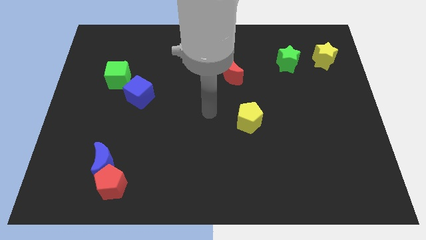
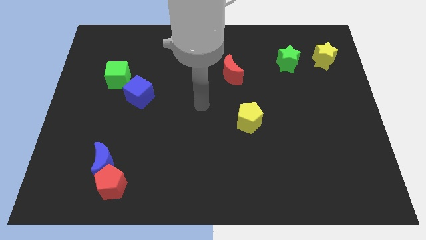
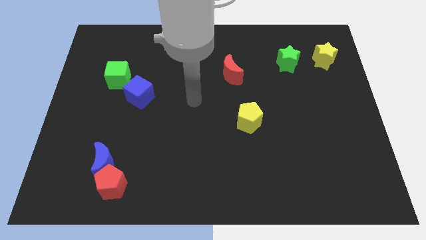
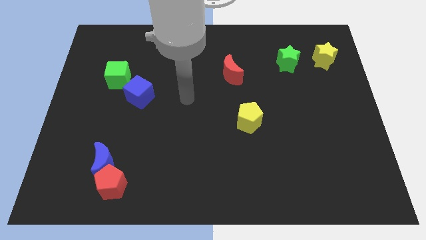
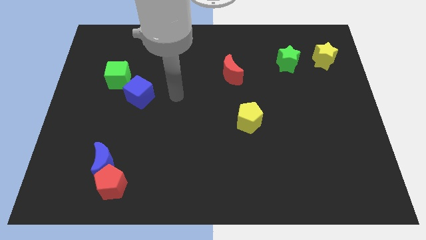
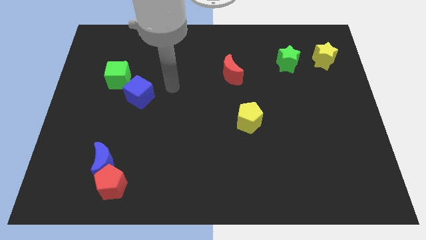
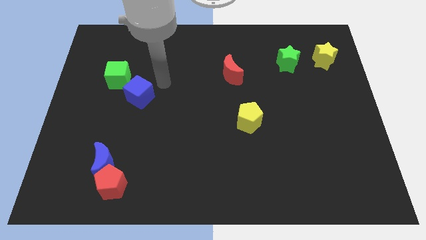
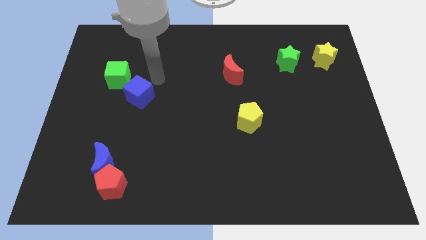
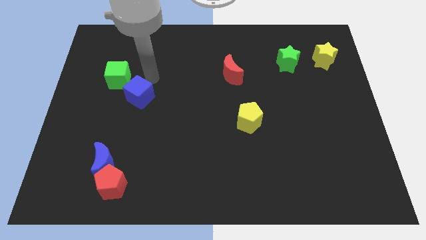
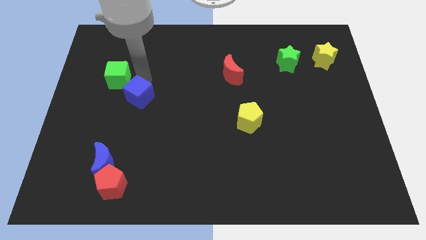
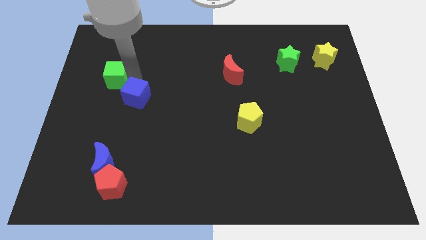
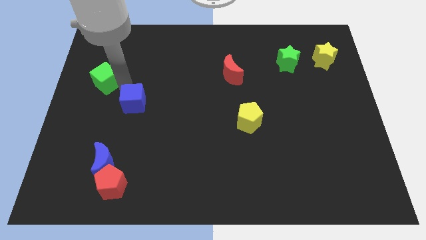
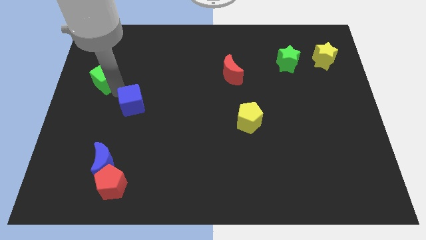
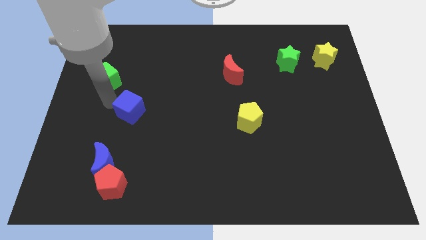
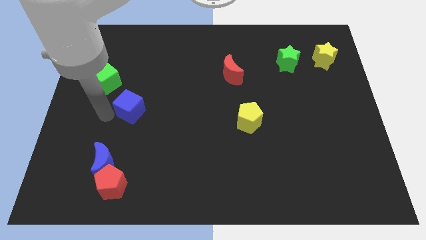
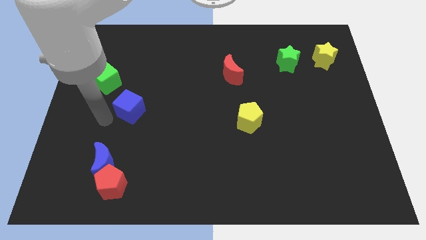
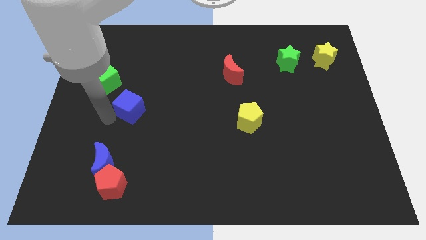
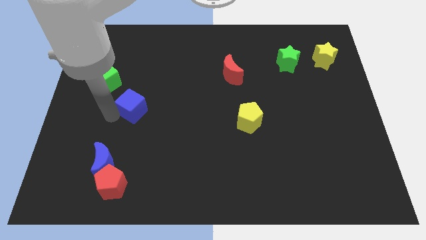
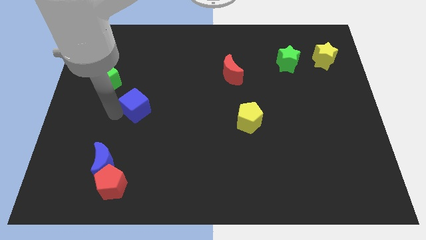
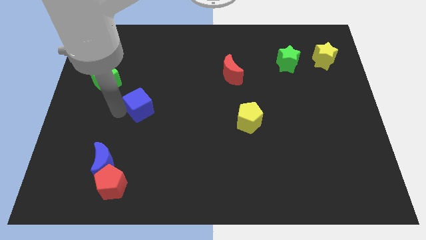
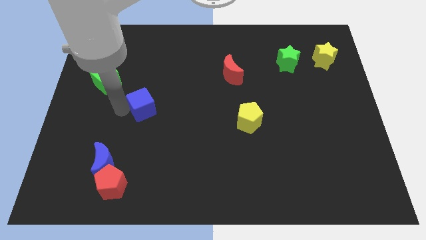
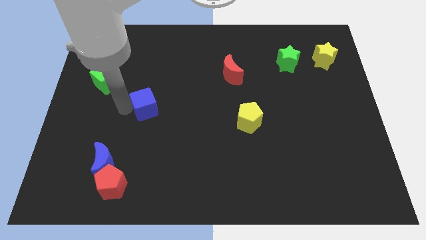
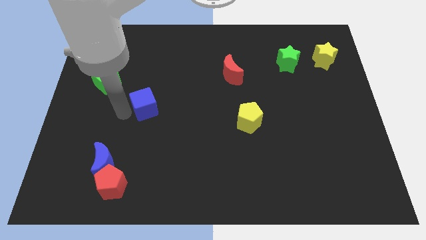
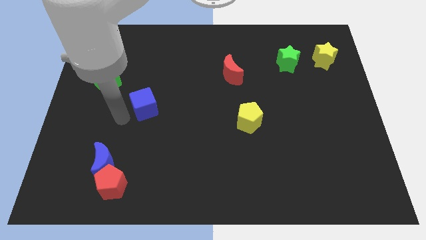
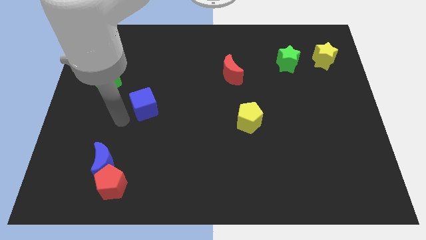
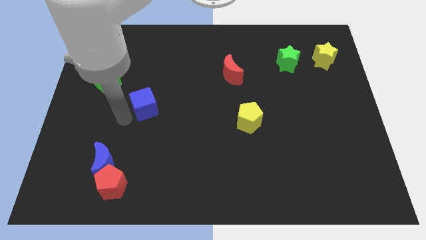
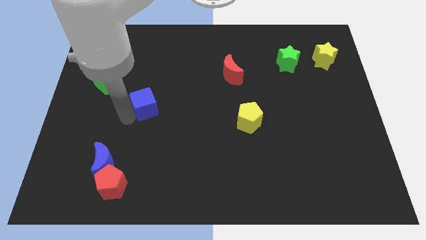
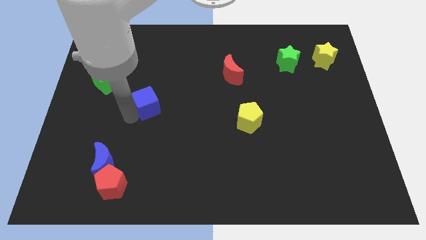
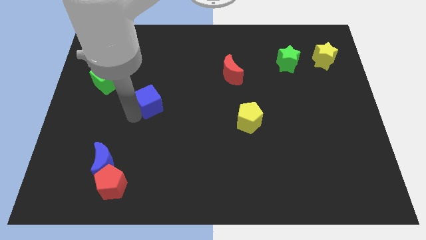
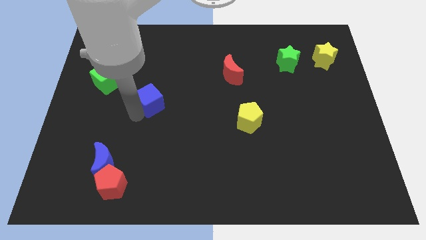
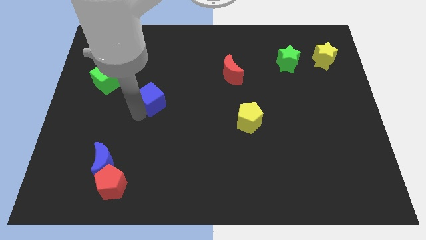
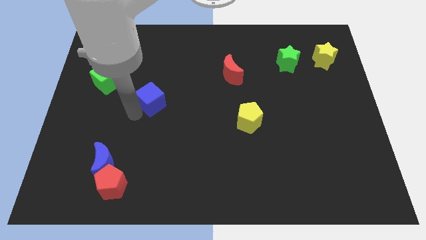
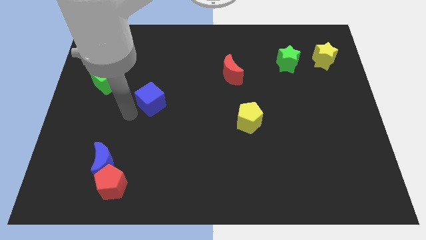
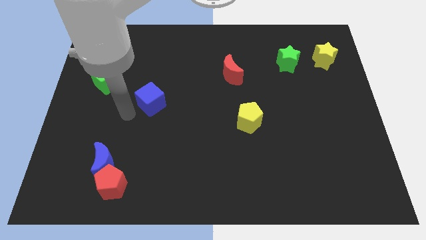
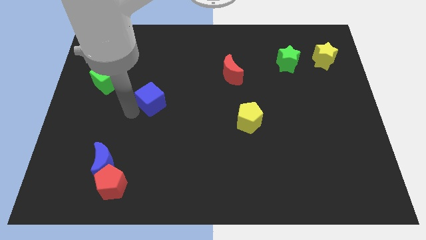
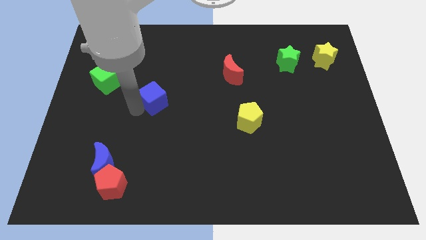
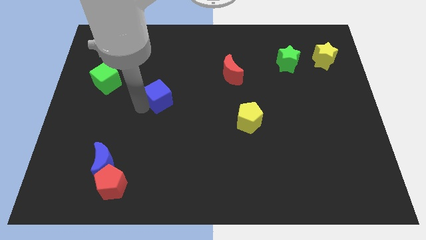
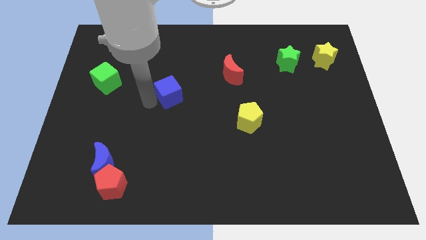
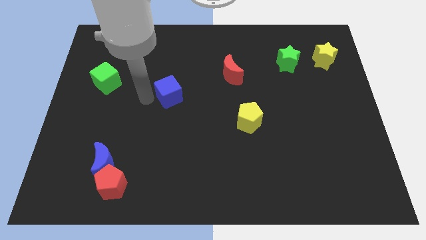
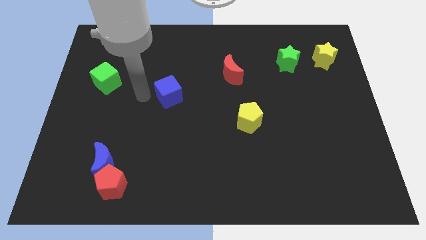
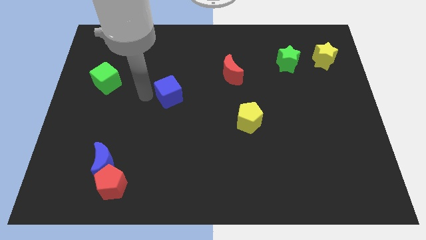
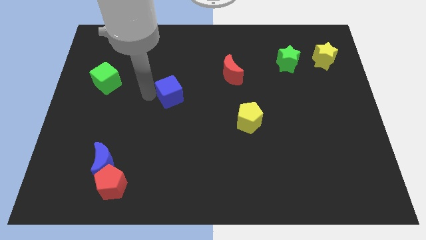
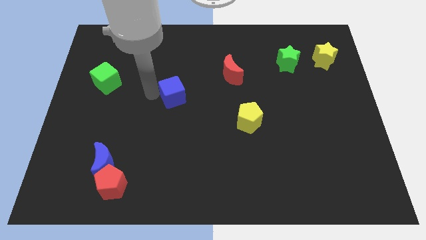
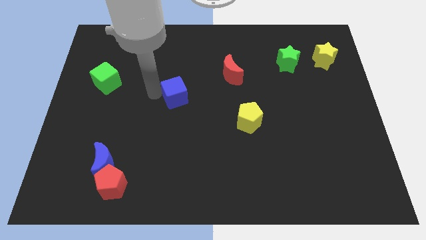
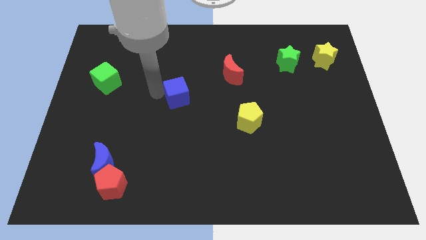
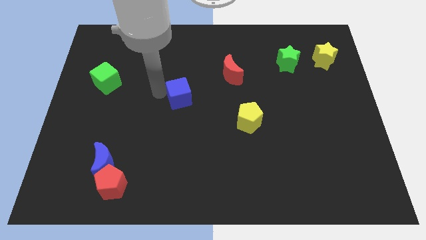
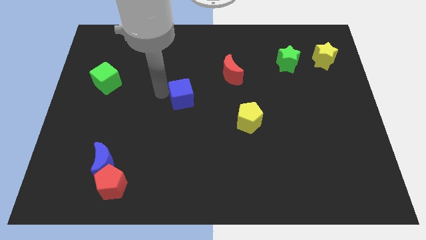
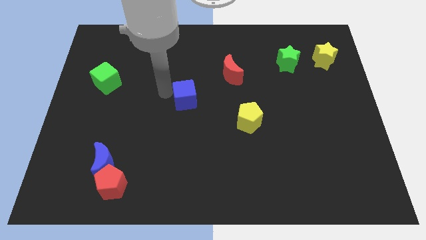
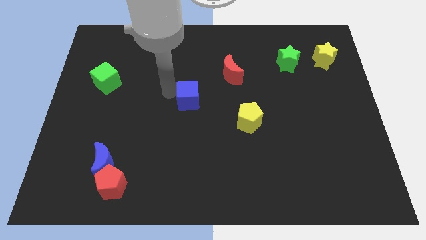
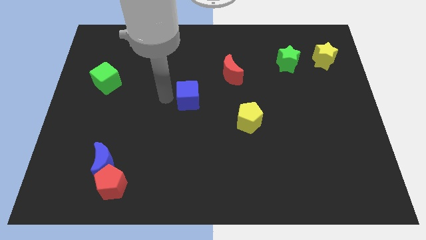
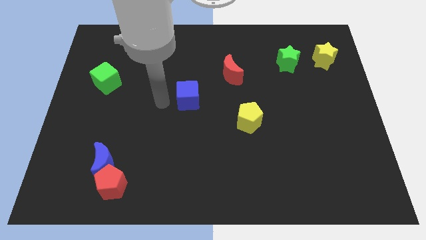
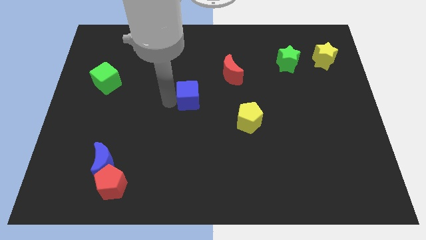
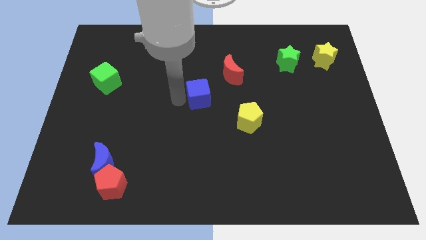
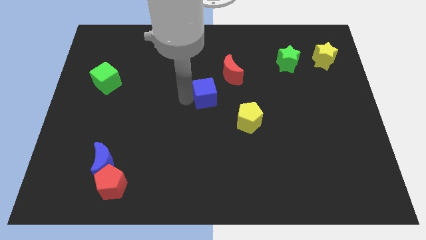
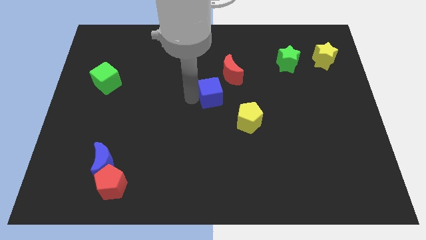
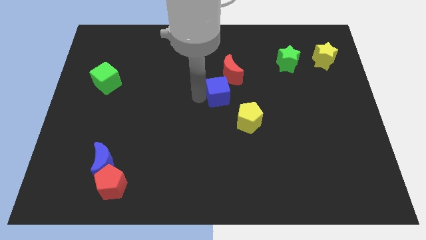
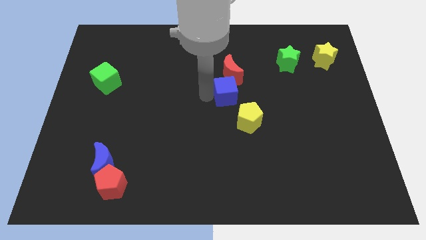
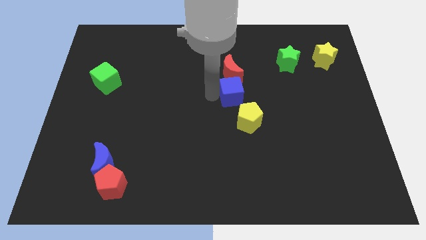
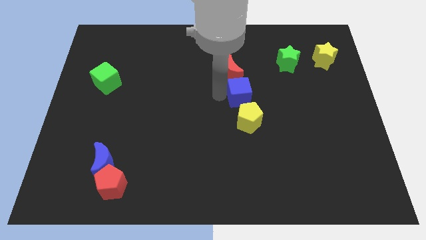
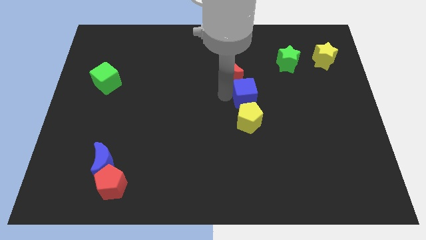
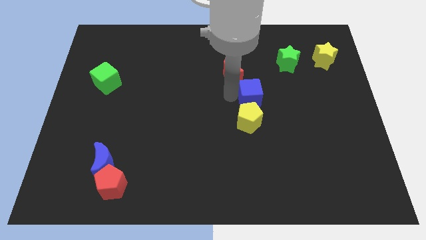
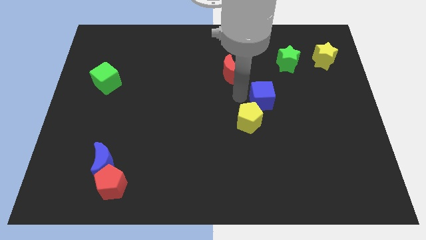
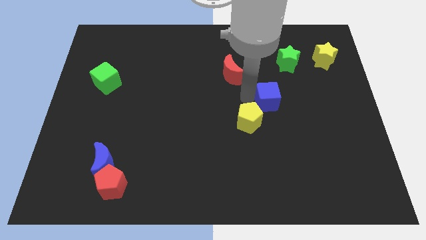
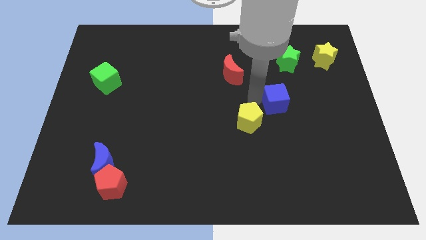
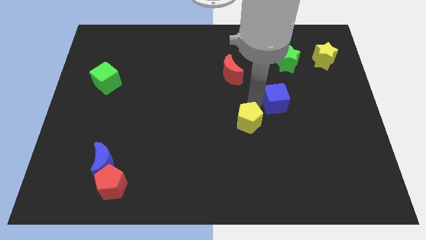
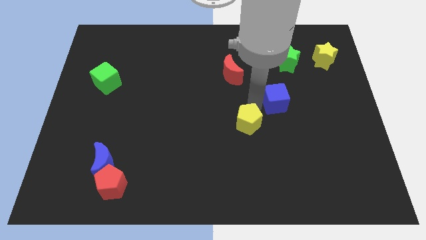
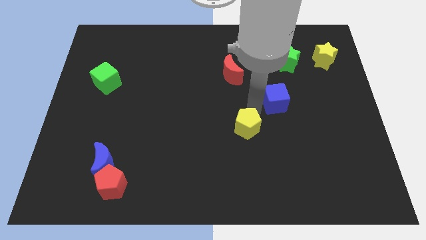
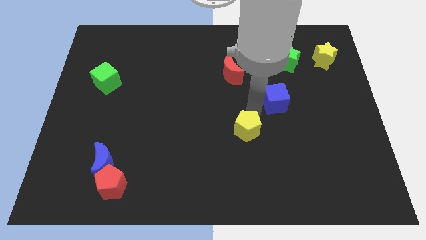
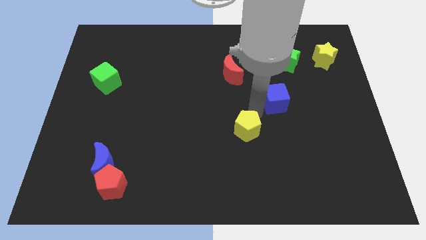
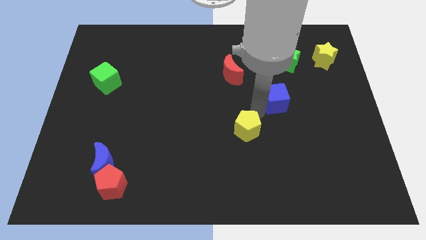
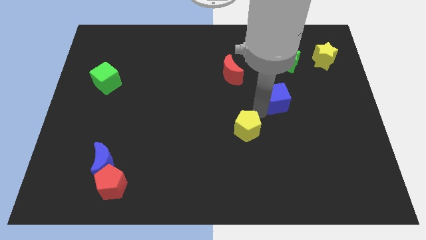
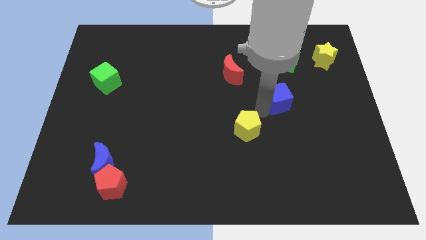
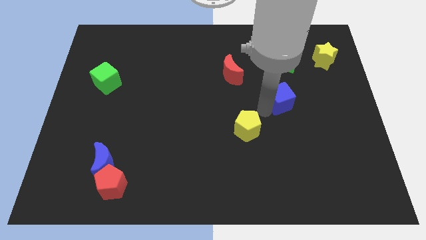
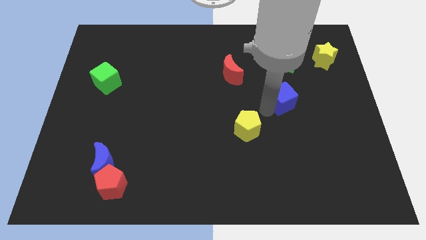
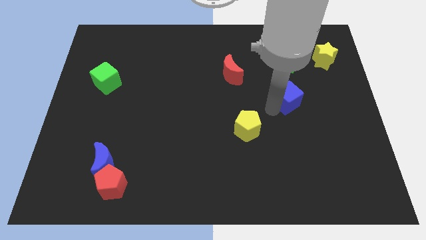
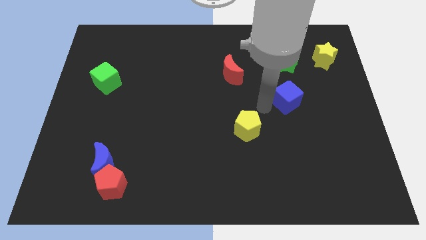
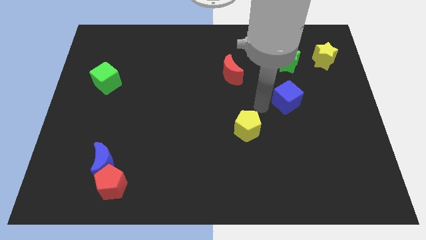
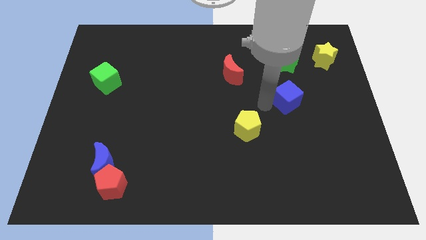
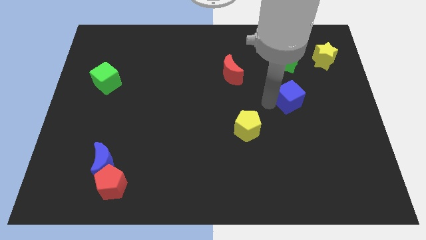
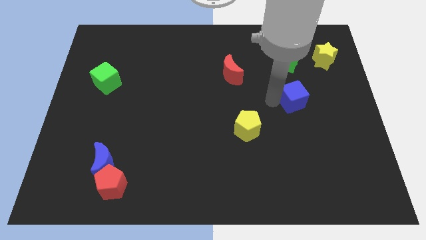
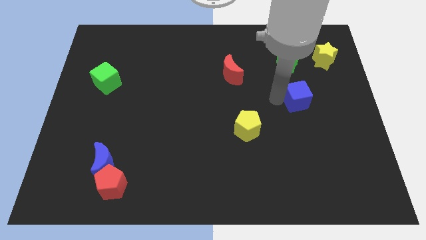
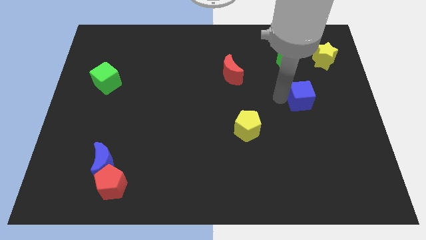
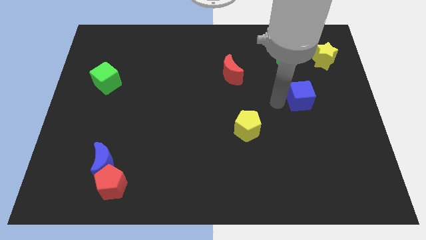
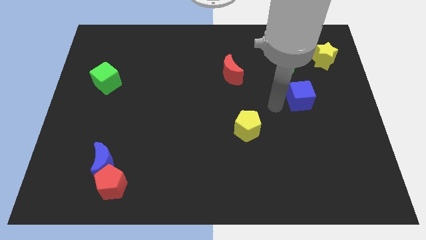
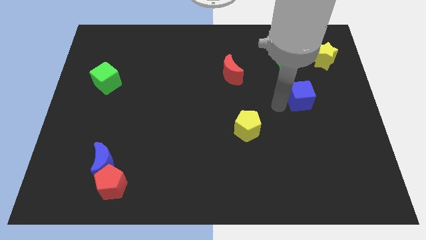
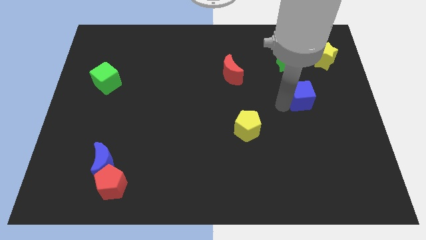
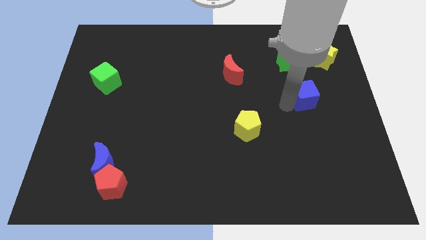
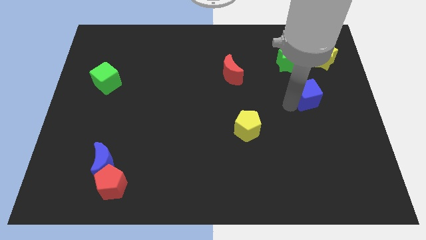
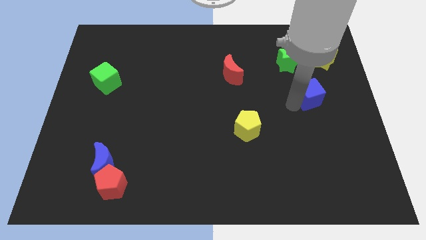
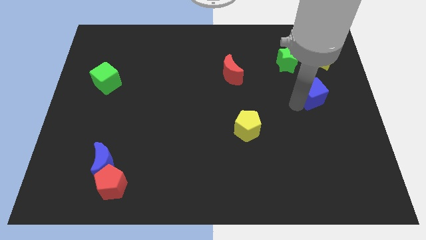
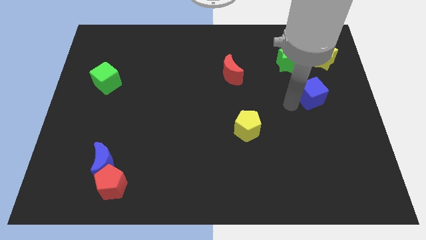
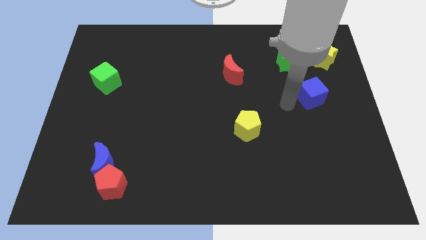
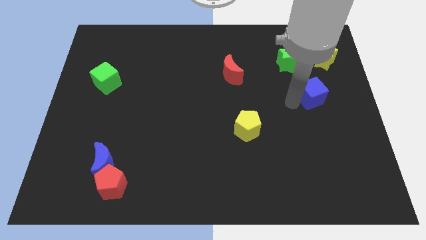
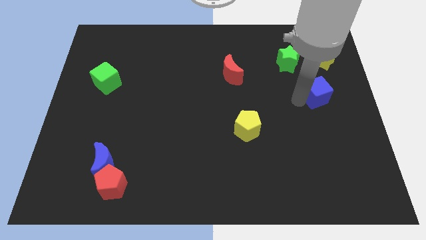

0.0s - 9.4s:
slide the blue cube to the bottom side of the yellow star
